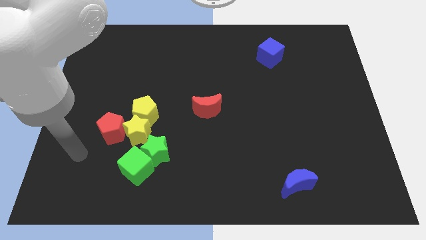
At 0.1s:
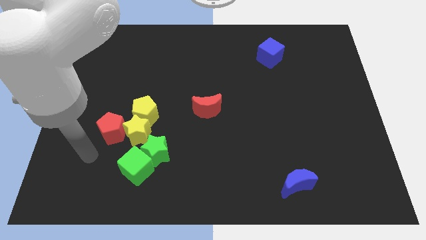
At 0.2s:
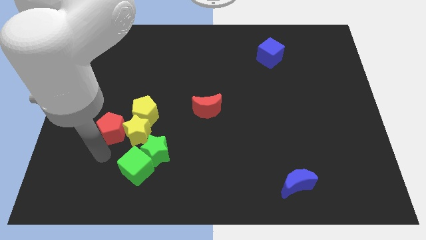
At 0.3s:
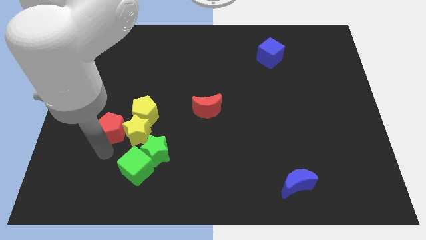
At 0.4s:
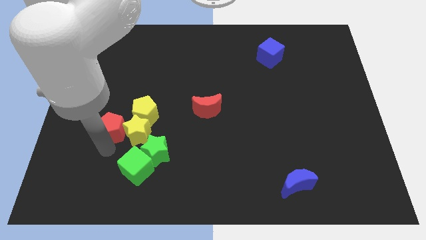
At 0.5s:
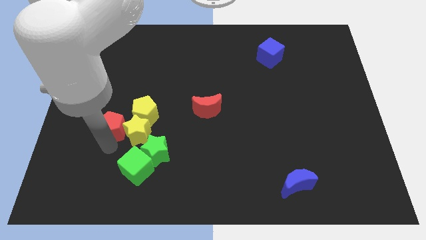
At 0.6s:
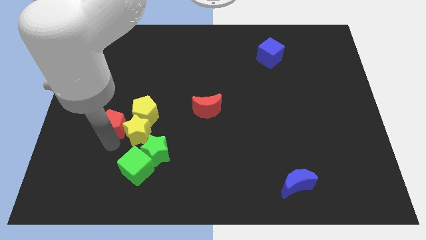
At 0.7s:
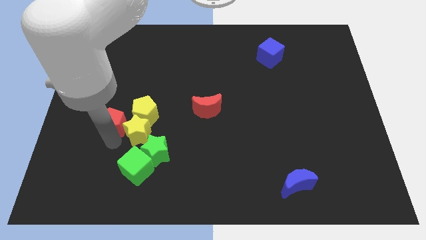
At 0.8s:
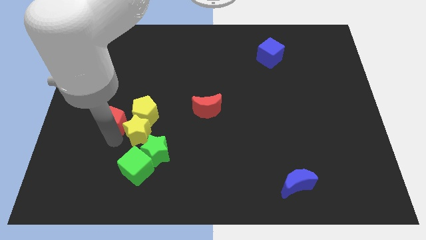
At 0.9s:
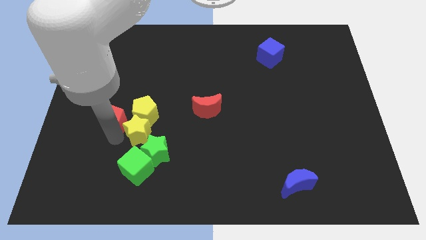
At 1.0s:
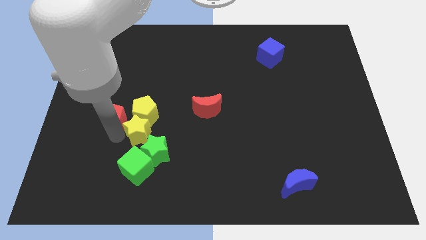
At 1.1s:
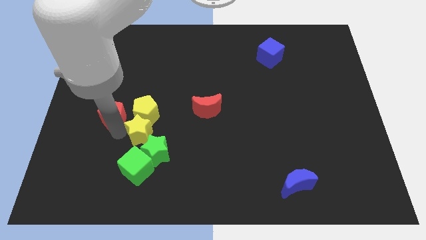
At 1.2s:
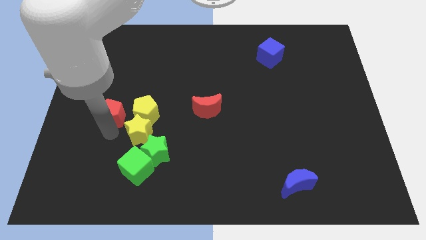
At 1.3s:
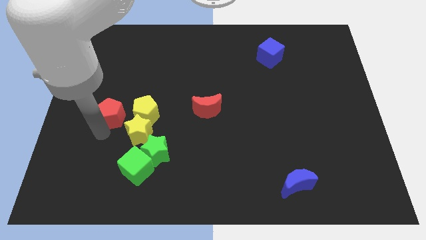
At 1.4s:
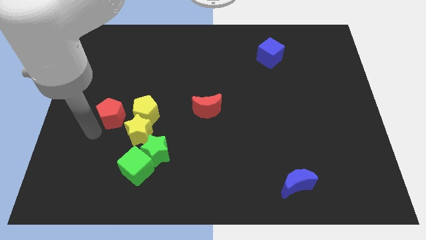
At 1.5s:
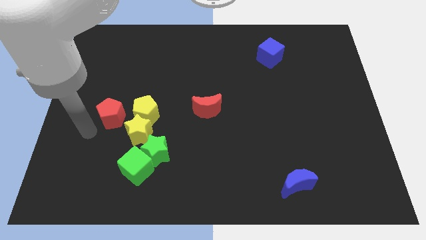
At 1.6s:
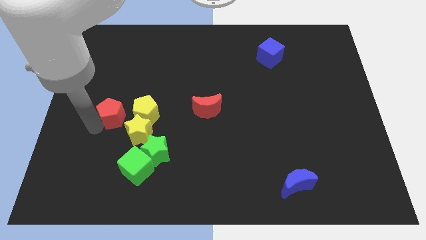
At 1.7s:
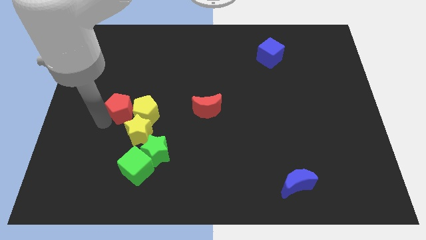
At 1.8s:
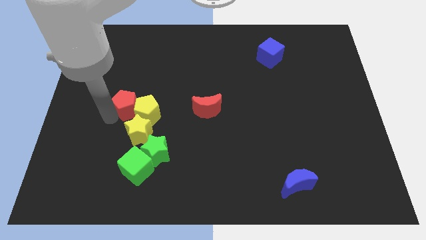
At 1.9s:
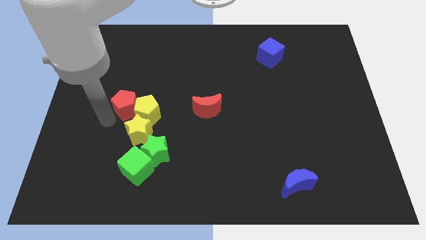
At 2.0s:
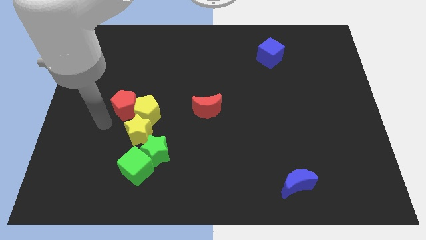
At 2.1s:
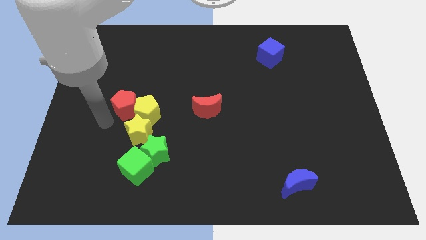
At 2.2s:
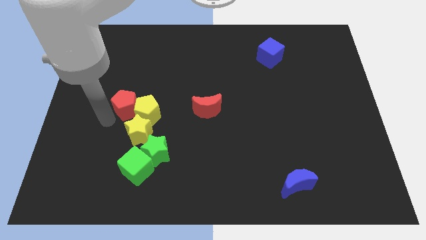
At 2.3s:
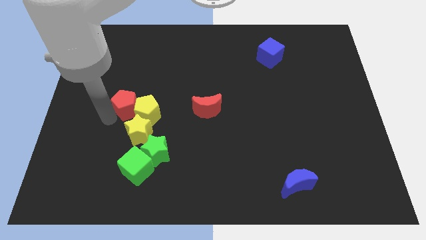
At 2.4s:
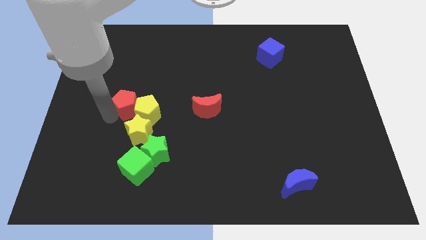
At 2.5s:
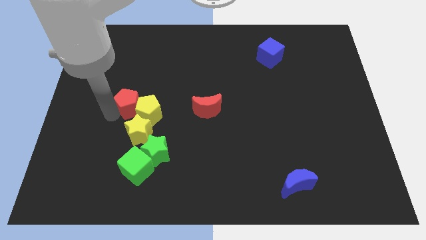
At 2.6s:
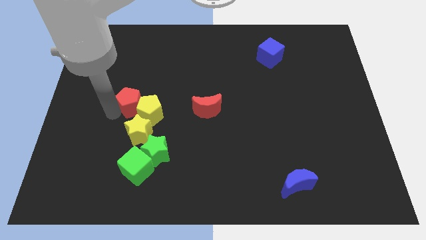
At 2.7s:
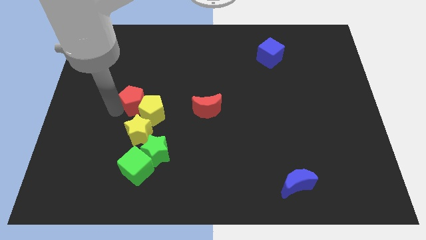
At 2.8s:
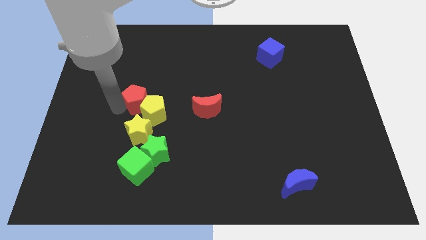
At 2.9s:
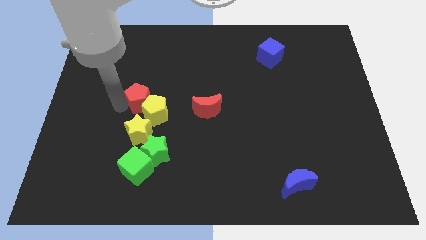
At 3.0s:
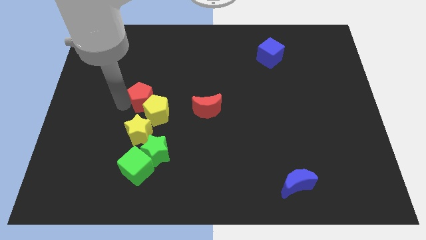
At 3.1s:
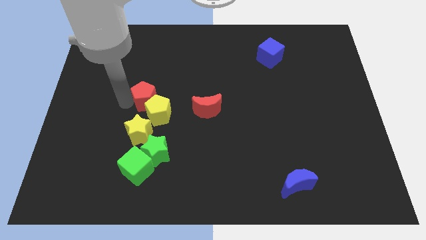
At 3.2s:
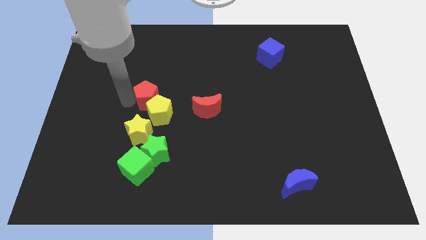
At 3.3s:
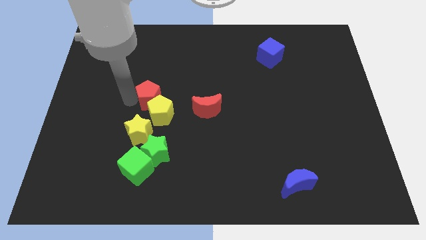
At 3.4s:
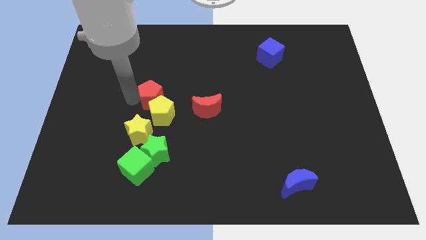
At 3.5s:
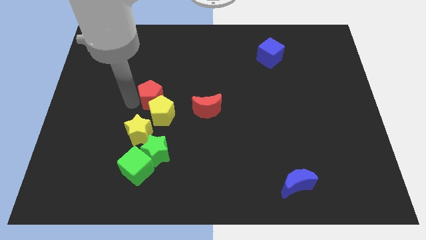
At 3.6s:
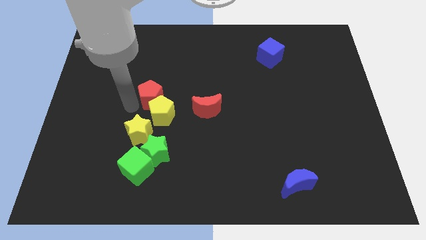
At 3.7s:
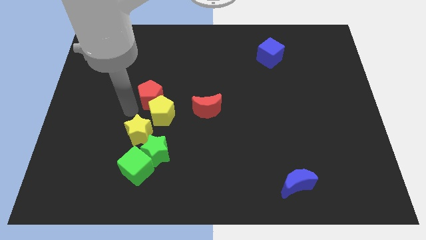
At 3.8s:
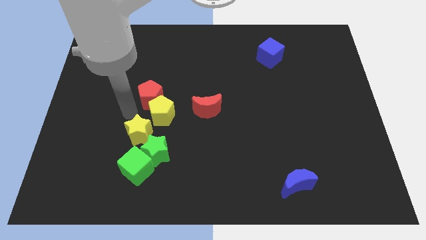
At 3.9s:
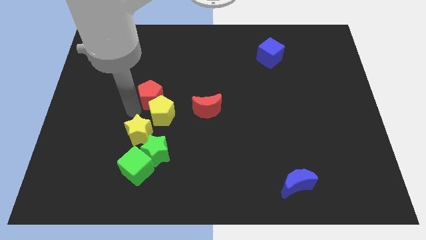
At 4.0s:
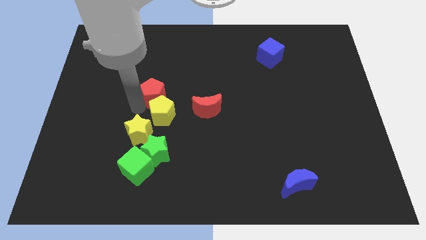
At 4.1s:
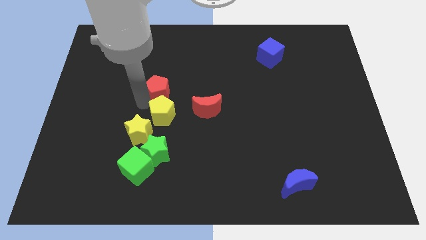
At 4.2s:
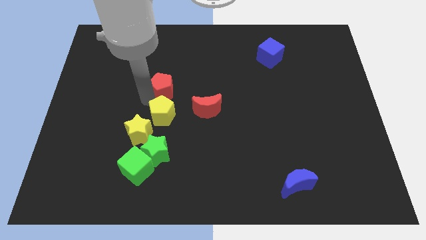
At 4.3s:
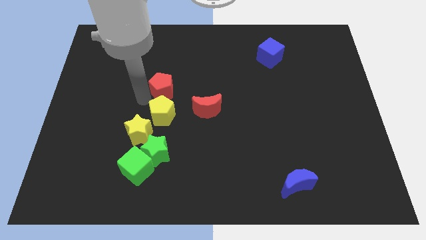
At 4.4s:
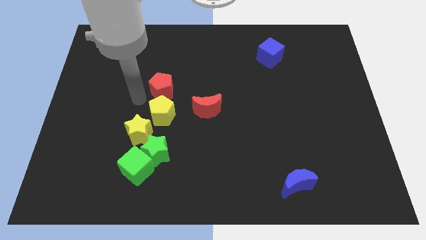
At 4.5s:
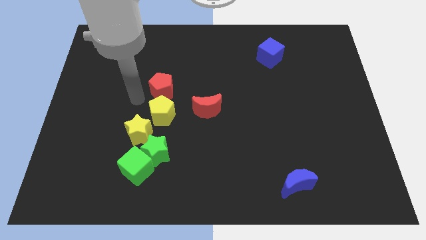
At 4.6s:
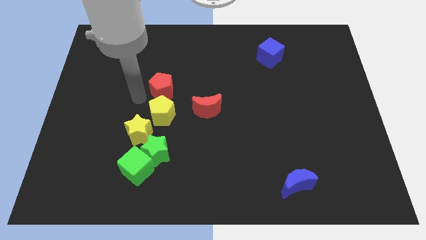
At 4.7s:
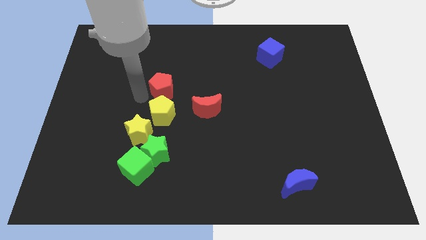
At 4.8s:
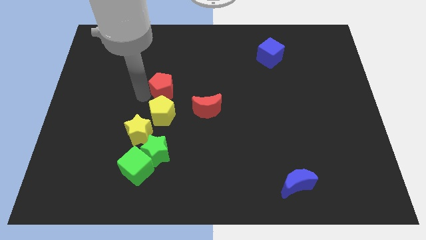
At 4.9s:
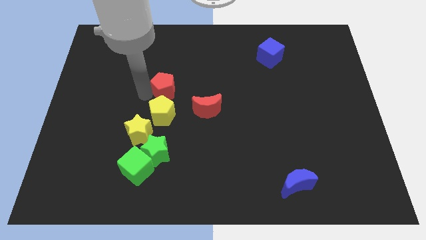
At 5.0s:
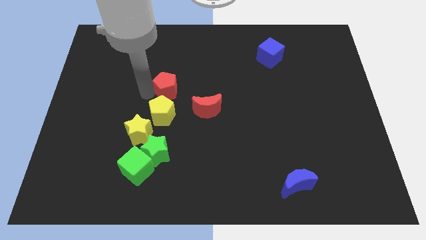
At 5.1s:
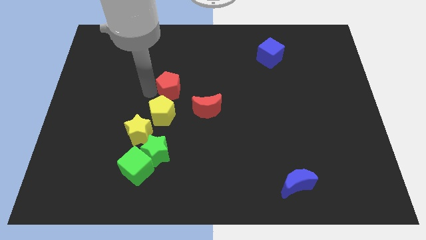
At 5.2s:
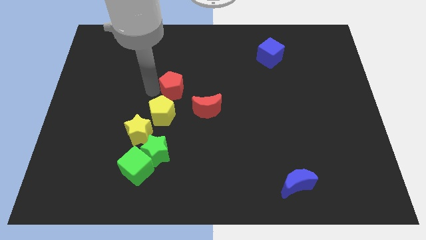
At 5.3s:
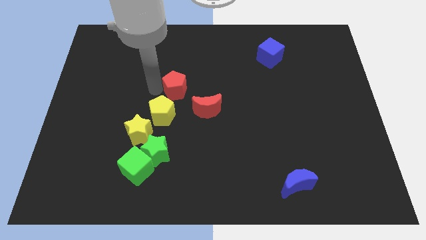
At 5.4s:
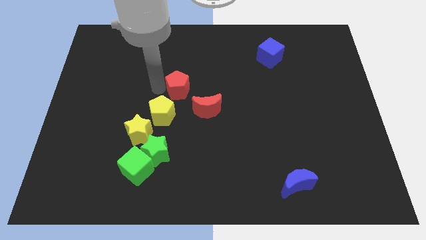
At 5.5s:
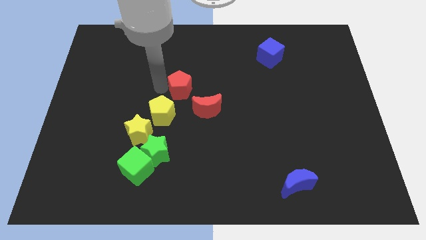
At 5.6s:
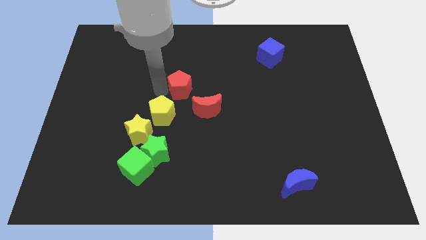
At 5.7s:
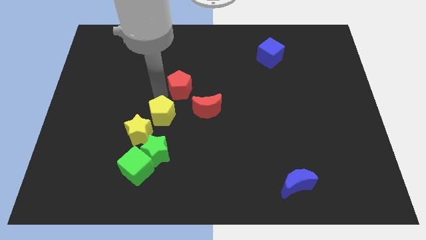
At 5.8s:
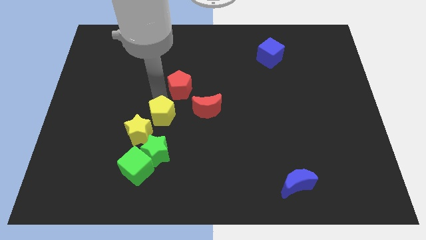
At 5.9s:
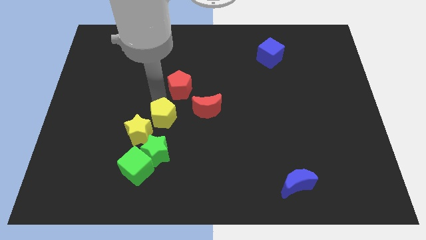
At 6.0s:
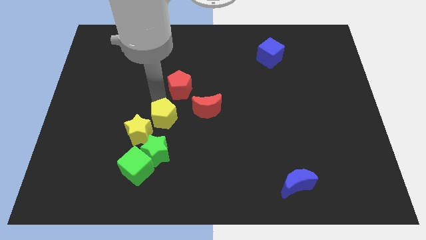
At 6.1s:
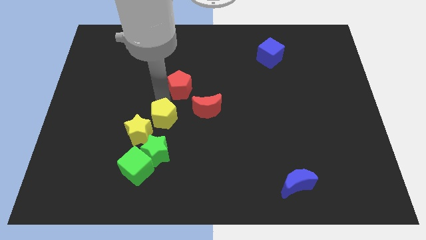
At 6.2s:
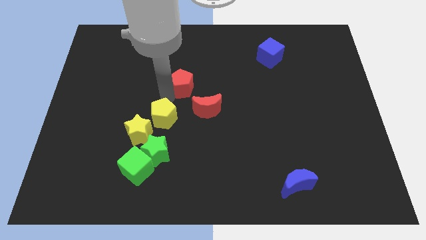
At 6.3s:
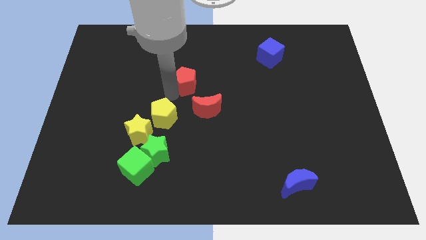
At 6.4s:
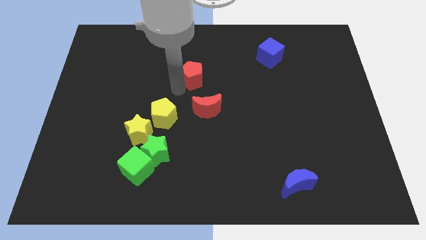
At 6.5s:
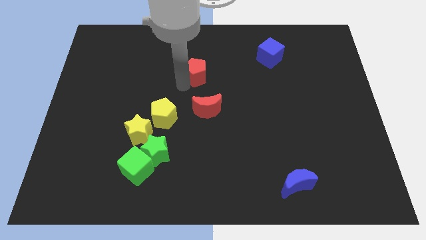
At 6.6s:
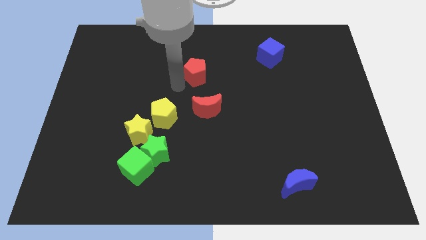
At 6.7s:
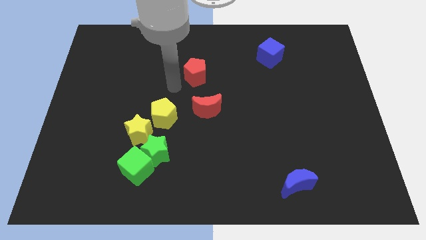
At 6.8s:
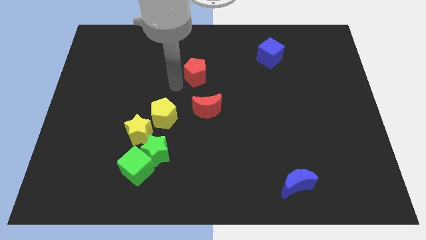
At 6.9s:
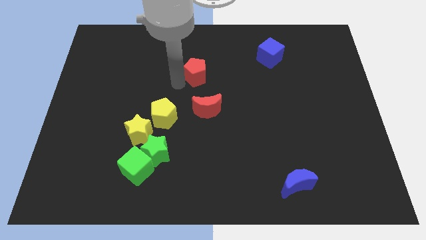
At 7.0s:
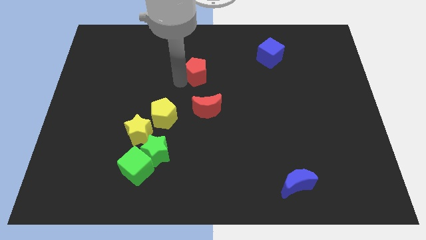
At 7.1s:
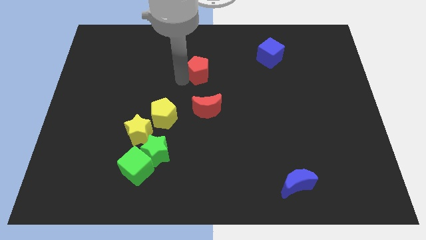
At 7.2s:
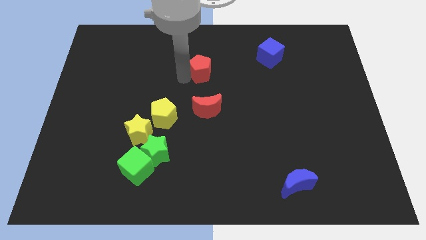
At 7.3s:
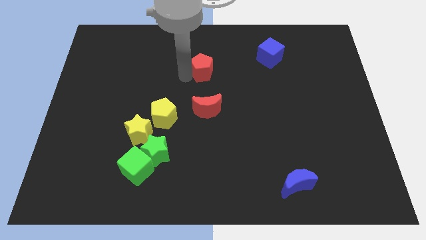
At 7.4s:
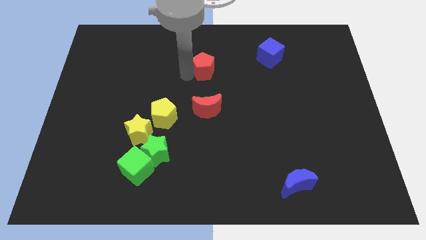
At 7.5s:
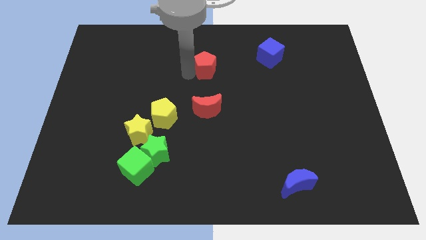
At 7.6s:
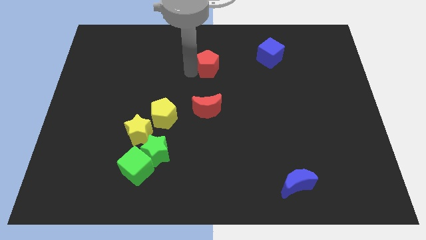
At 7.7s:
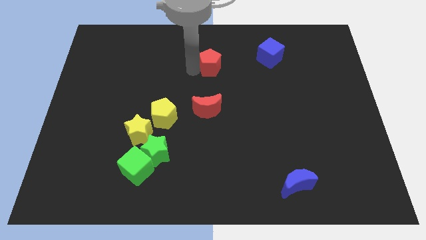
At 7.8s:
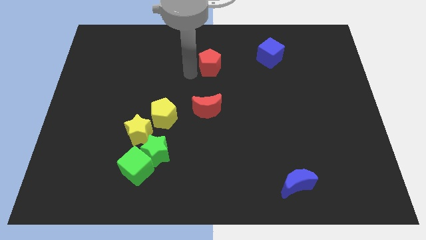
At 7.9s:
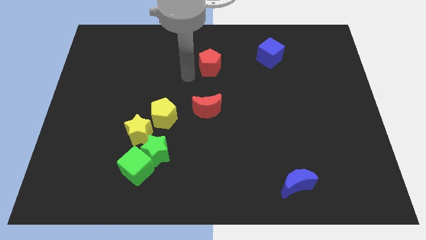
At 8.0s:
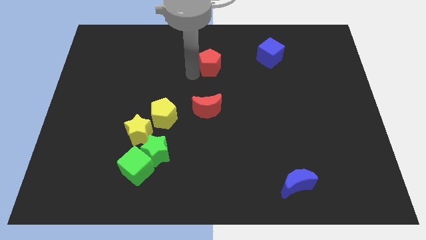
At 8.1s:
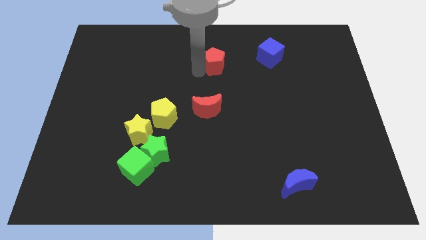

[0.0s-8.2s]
move the red pentagon left of the blue cube
